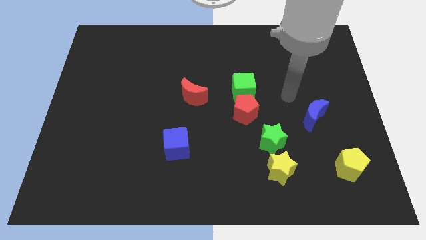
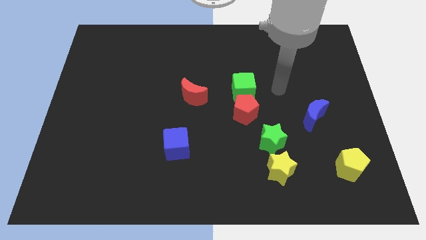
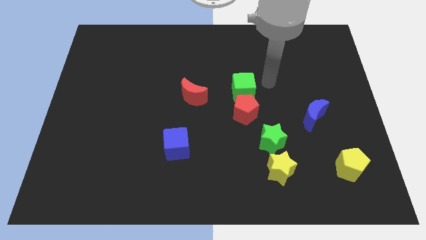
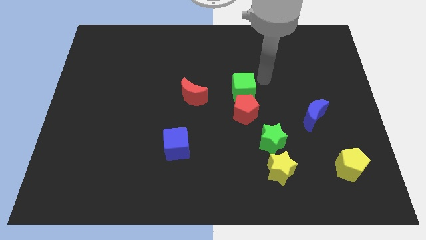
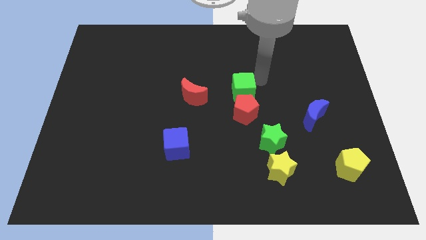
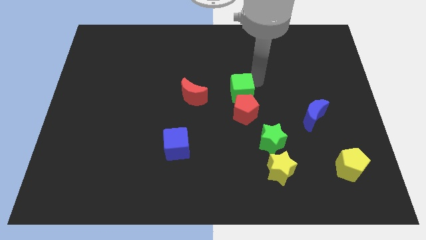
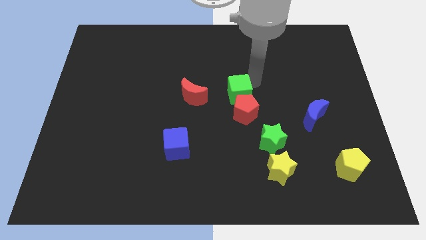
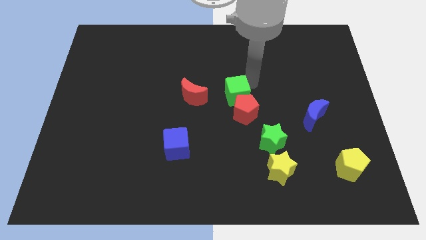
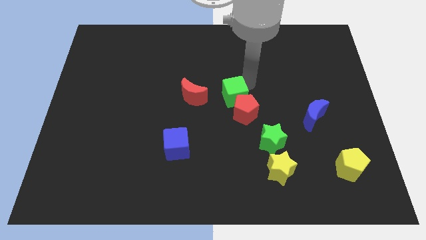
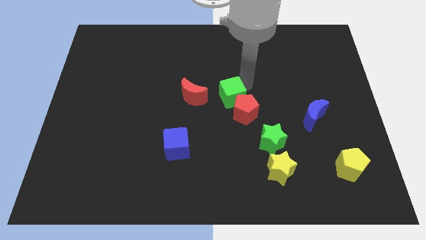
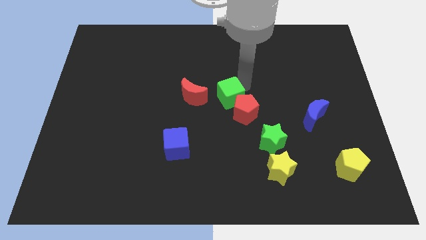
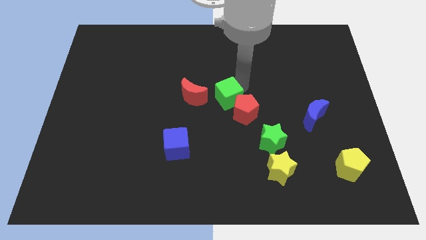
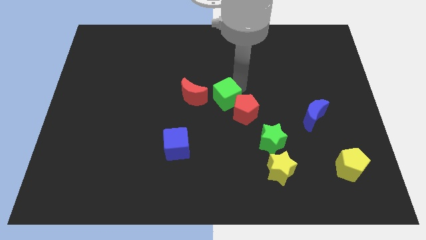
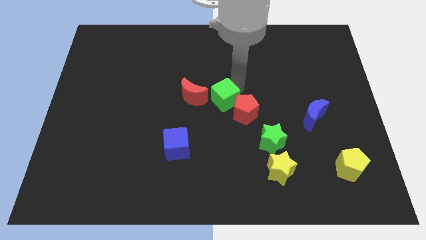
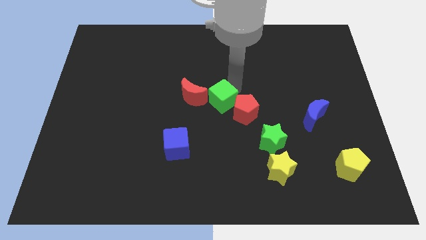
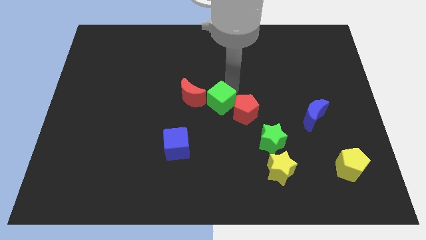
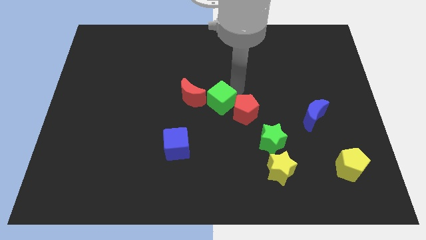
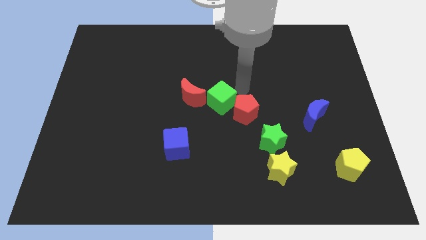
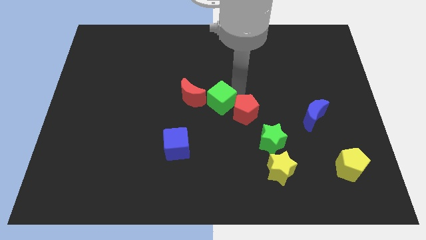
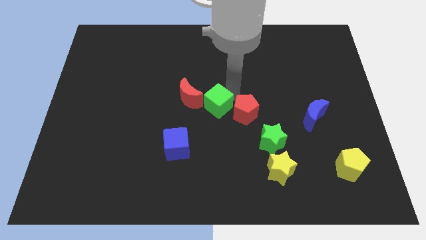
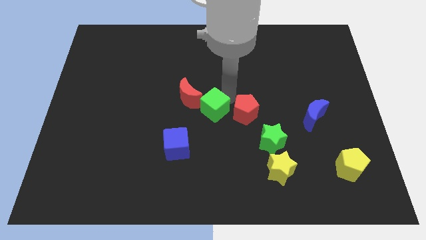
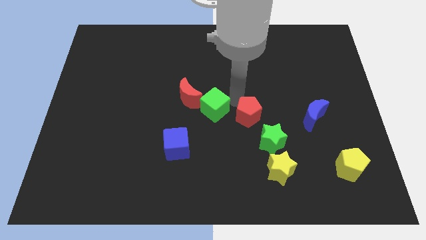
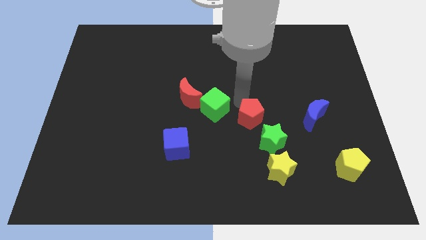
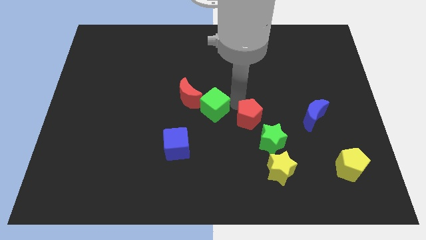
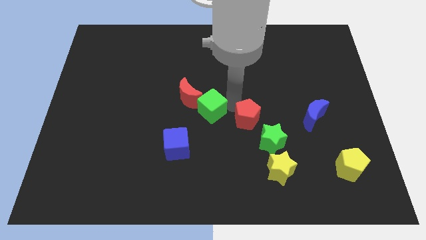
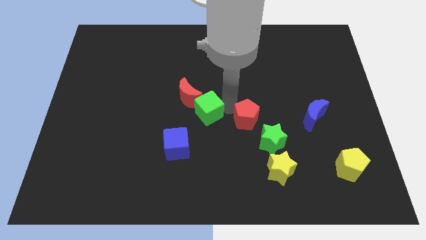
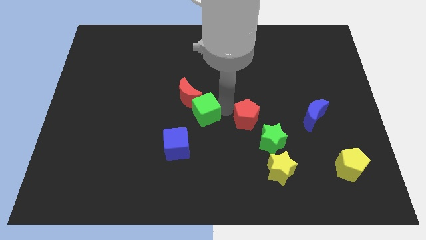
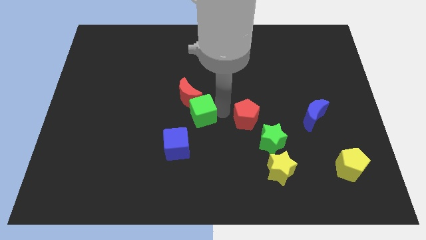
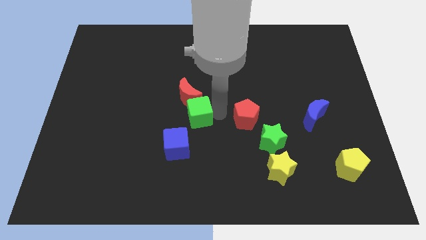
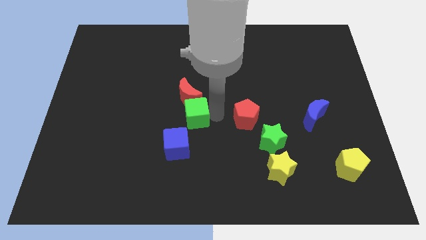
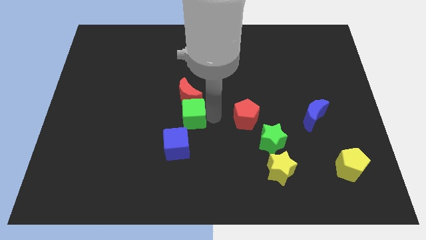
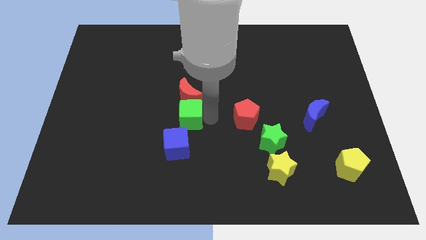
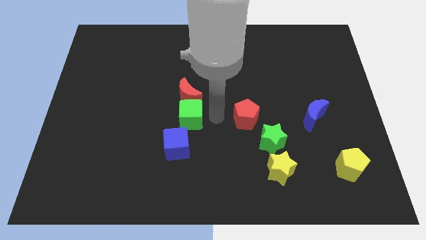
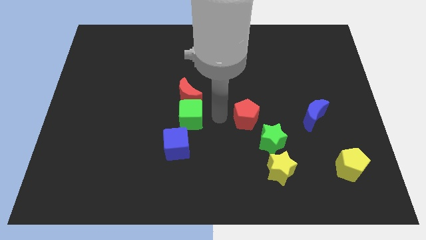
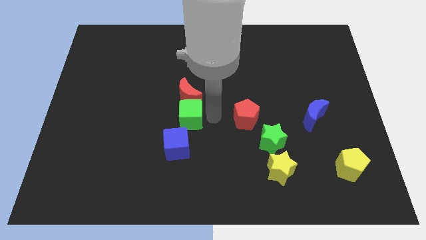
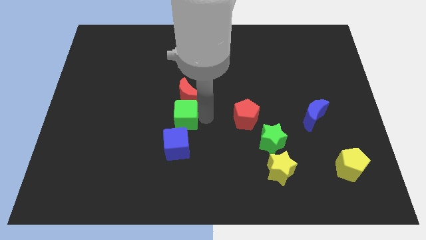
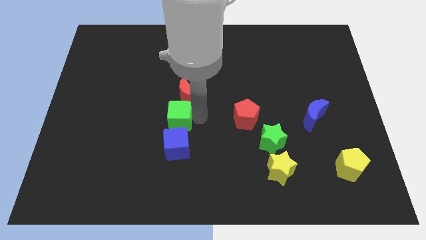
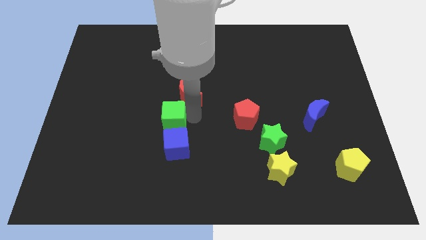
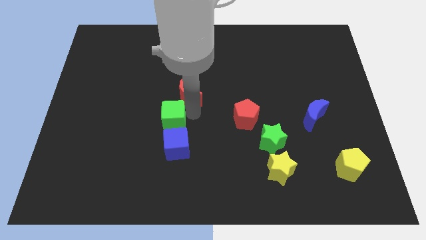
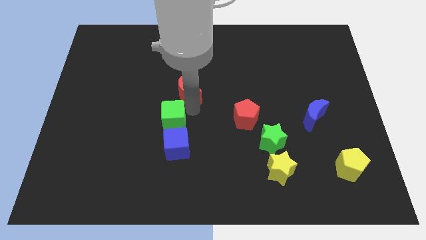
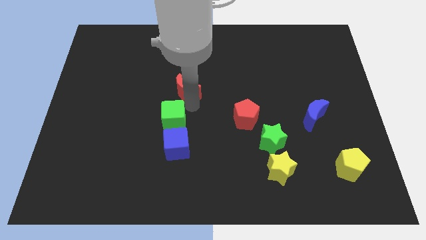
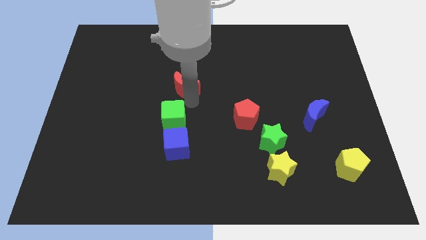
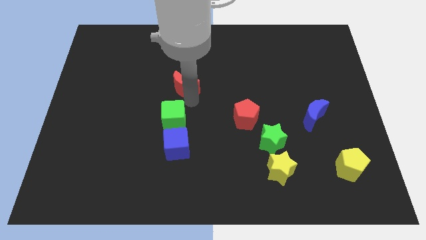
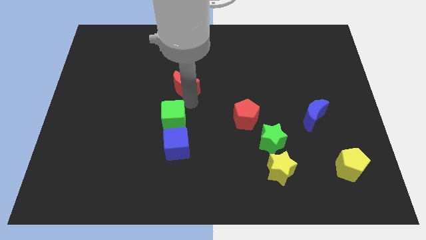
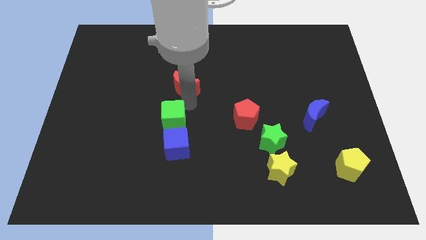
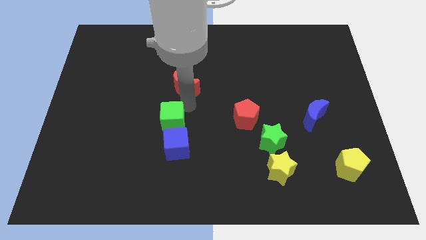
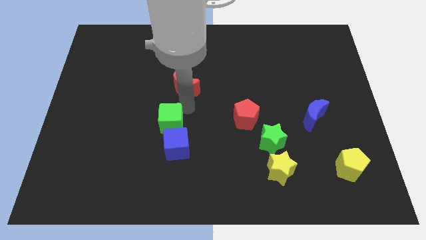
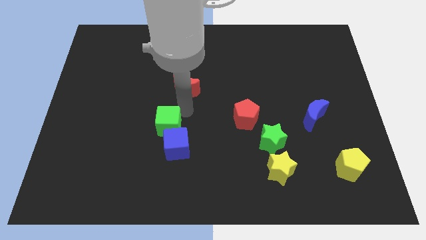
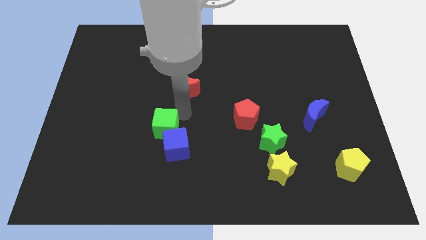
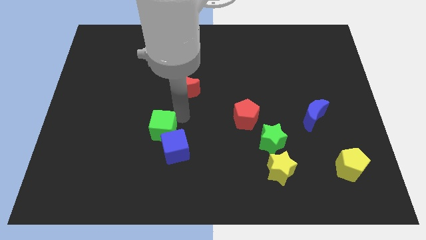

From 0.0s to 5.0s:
slide the green cube diagonally downwards and left

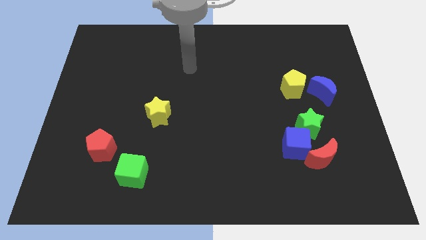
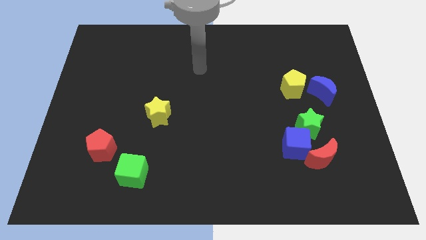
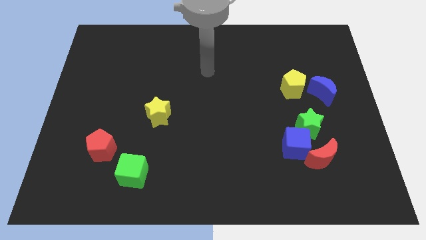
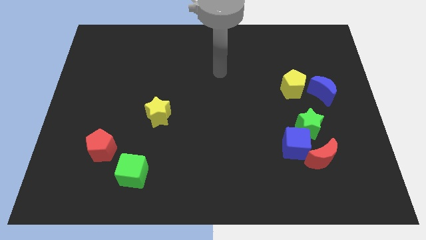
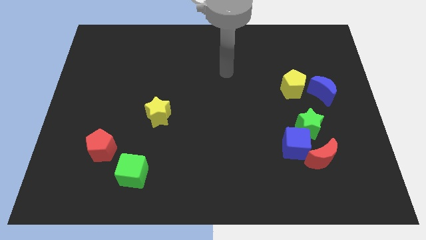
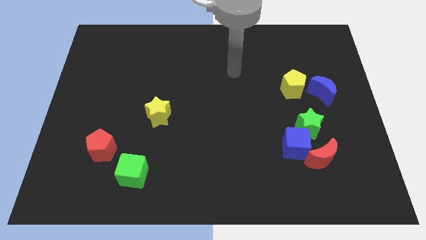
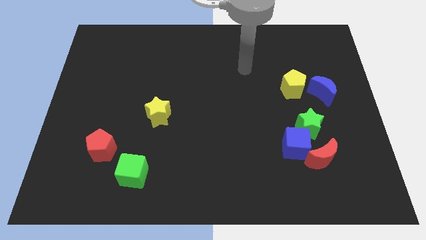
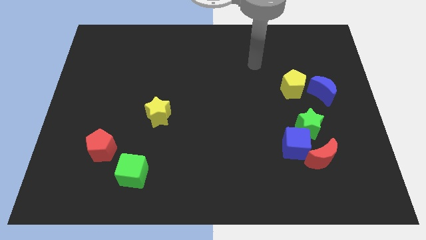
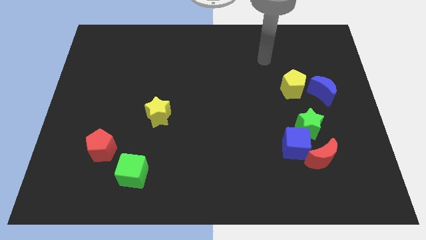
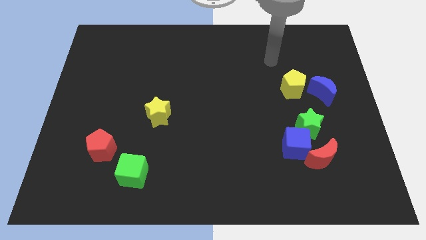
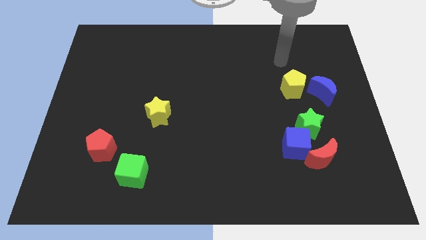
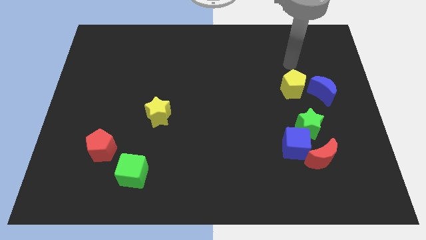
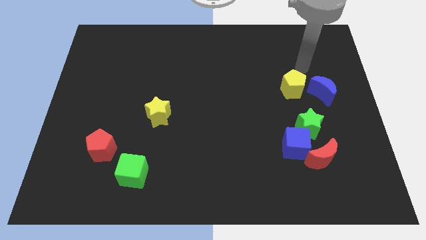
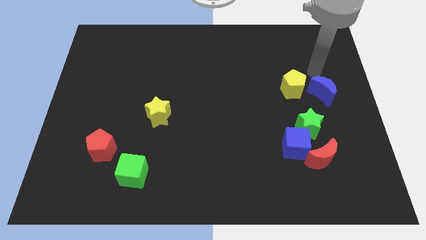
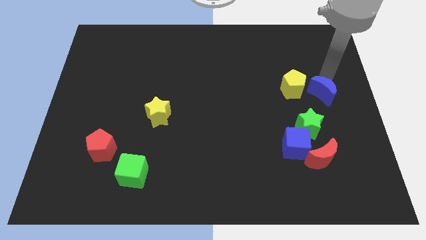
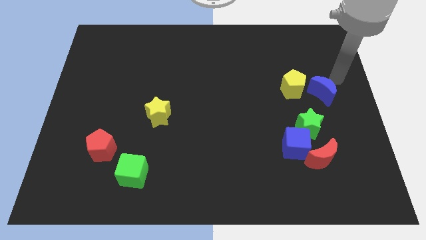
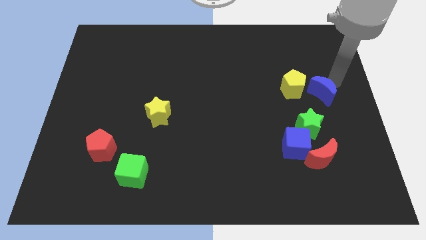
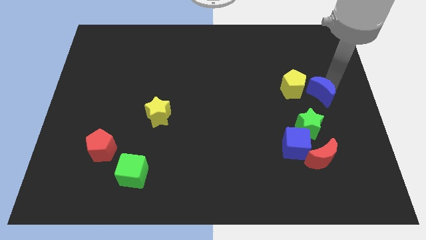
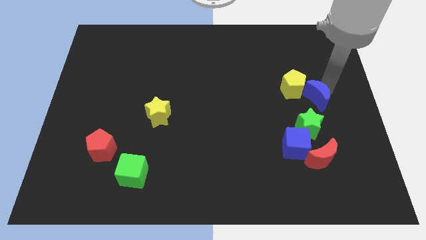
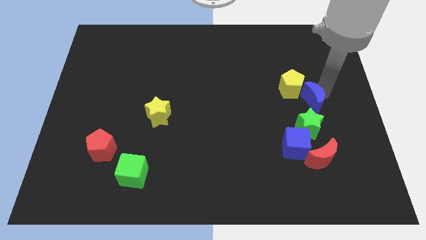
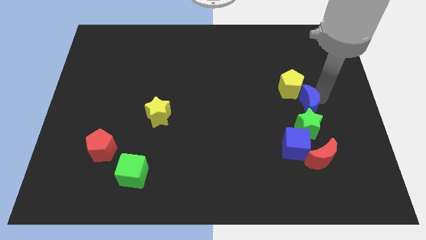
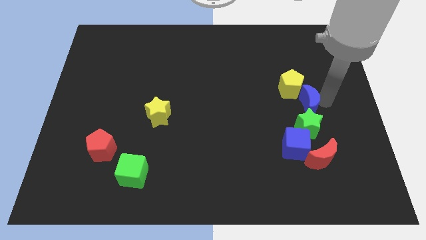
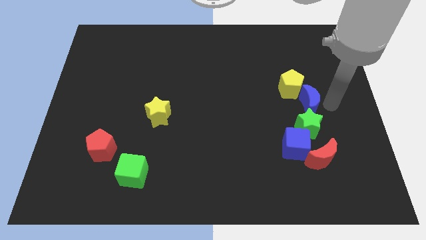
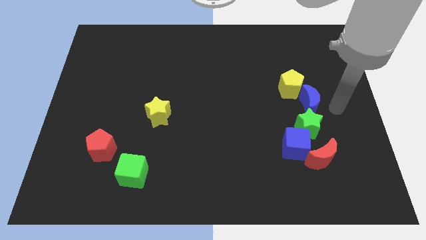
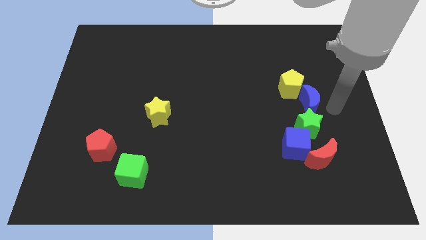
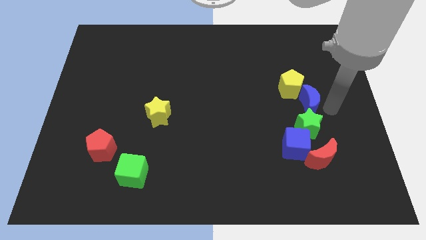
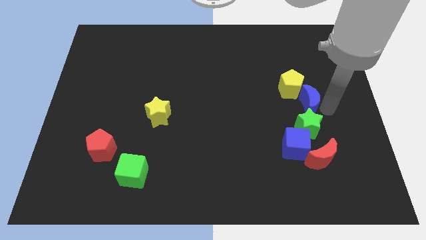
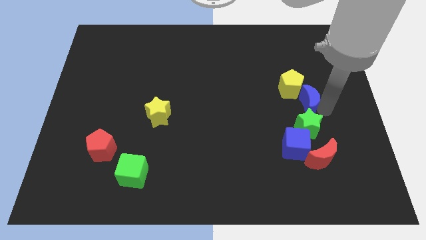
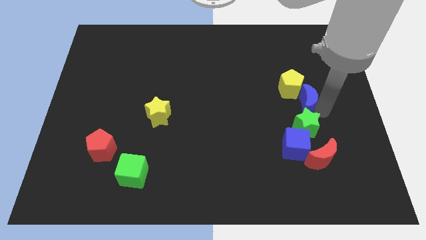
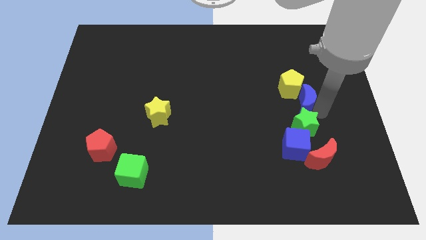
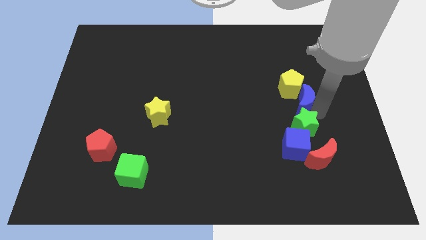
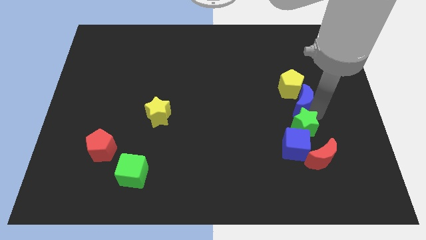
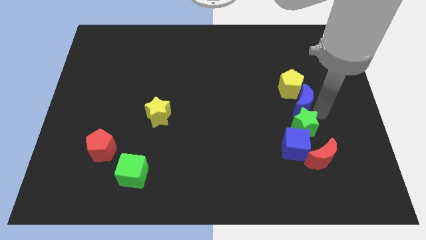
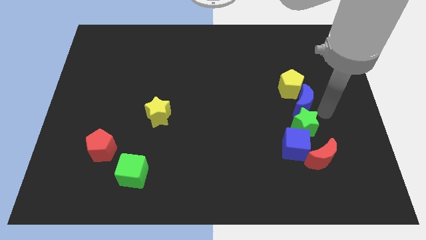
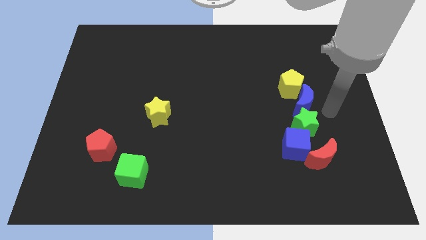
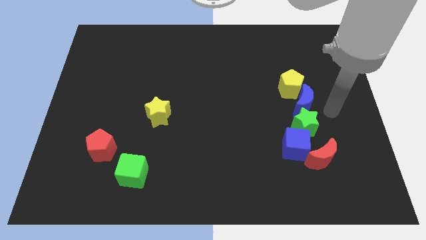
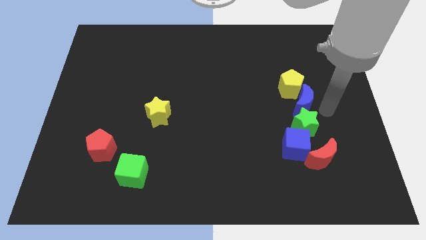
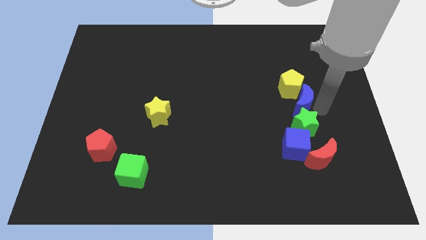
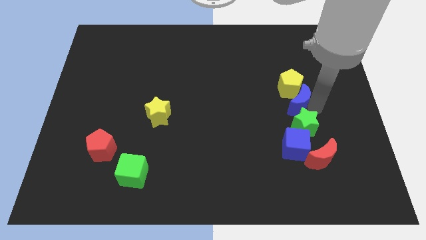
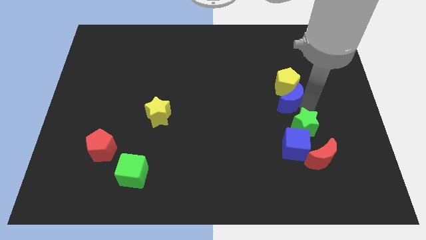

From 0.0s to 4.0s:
move the blue moon left a little bit
